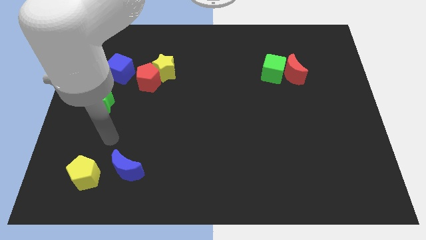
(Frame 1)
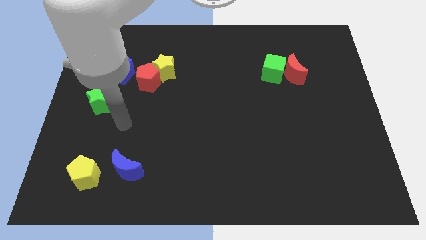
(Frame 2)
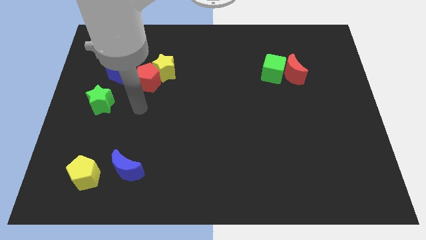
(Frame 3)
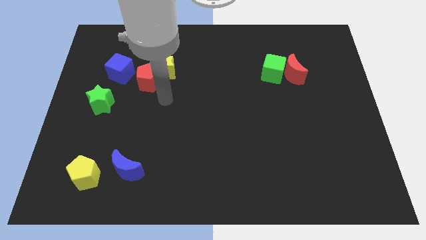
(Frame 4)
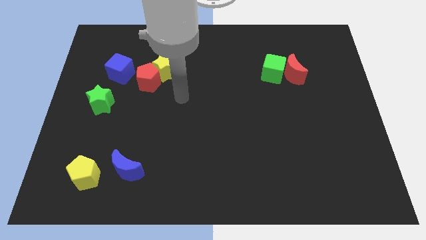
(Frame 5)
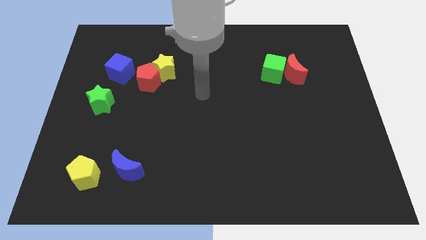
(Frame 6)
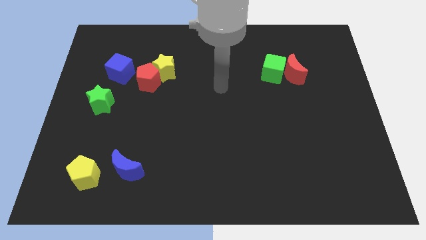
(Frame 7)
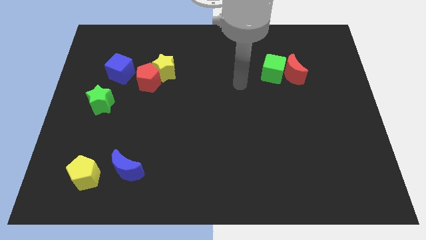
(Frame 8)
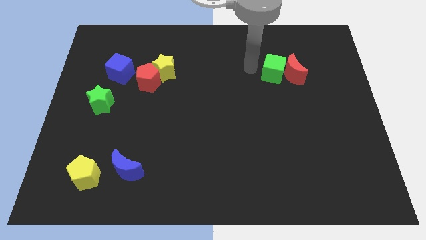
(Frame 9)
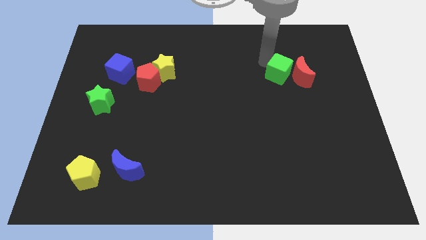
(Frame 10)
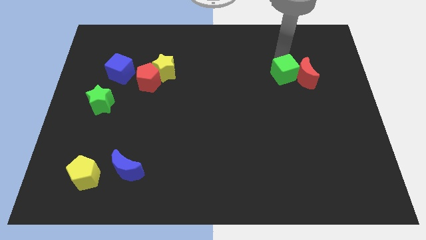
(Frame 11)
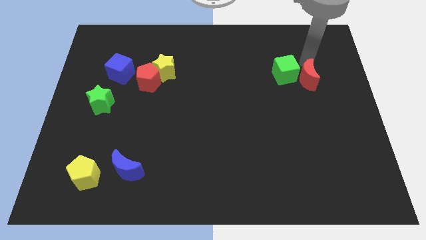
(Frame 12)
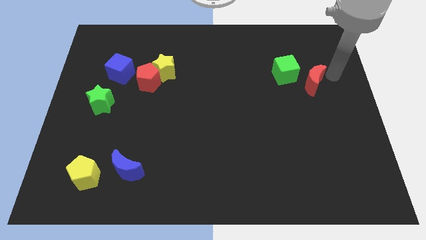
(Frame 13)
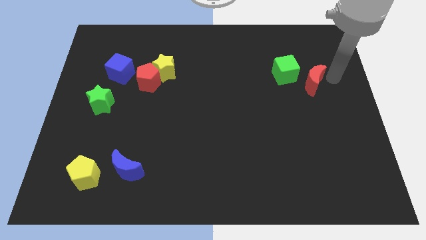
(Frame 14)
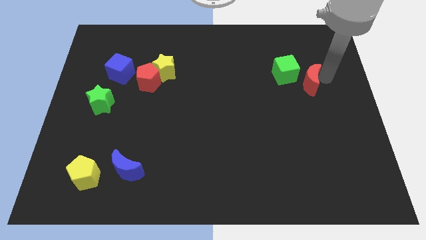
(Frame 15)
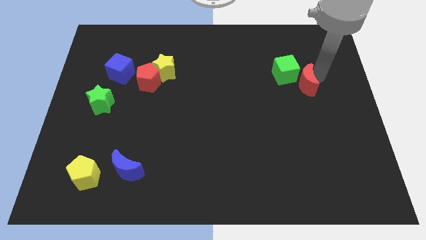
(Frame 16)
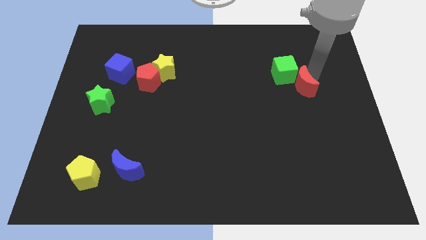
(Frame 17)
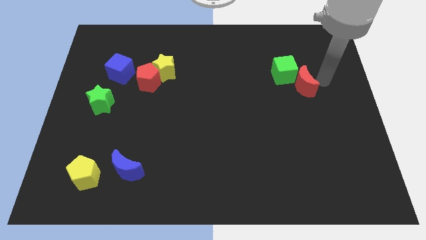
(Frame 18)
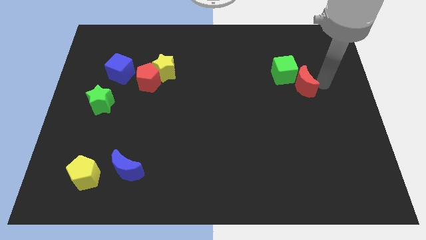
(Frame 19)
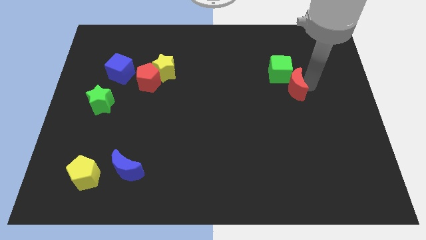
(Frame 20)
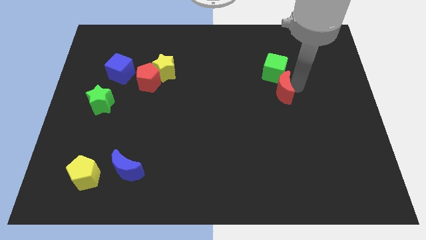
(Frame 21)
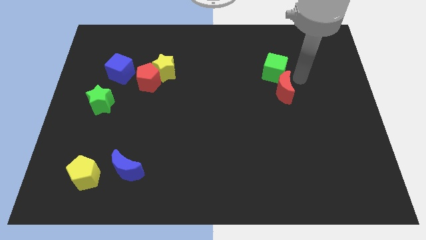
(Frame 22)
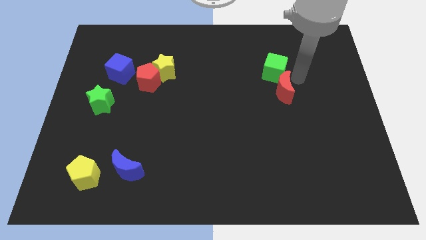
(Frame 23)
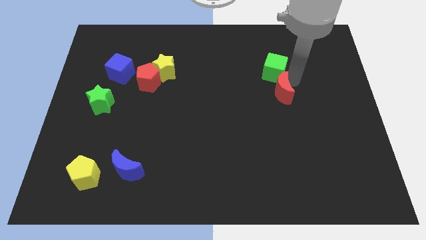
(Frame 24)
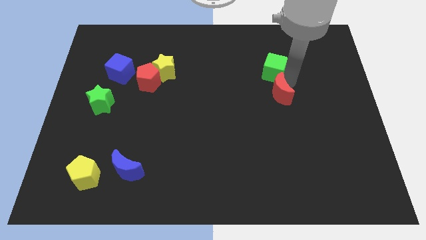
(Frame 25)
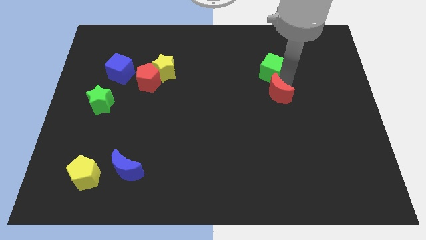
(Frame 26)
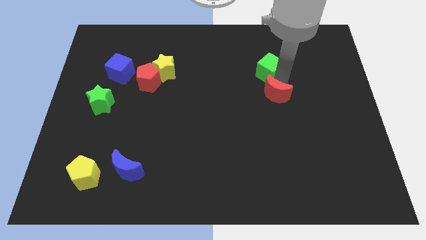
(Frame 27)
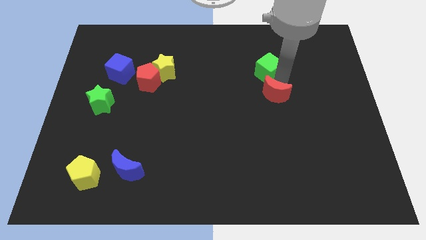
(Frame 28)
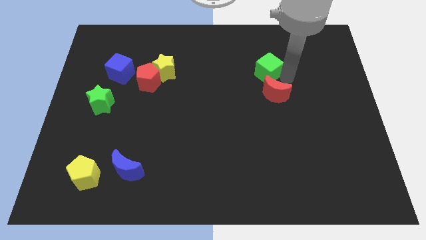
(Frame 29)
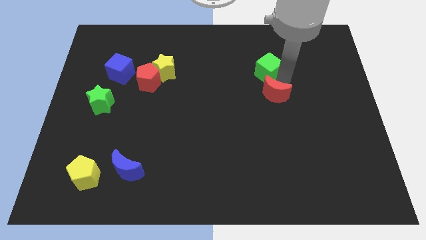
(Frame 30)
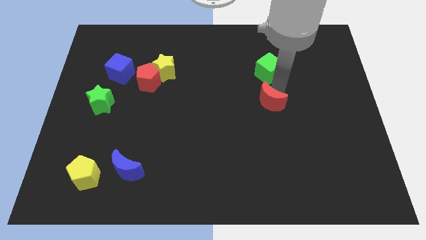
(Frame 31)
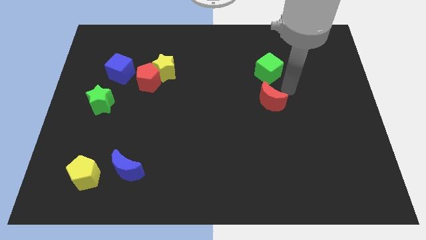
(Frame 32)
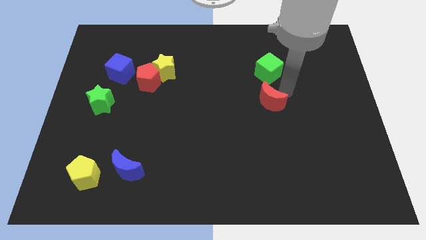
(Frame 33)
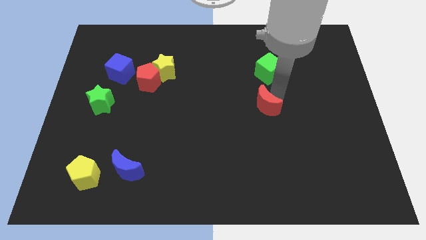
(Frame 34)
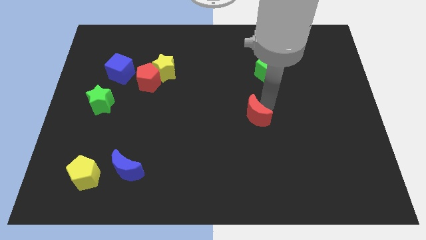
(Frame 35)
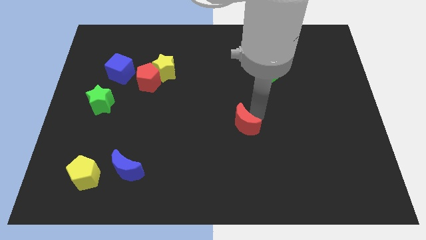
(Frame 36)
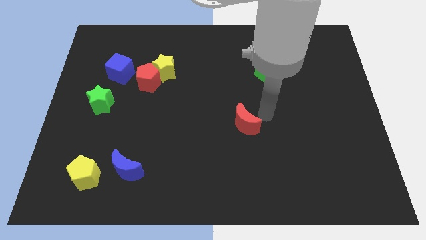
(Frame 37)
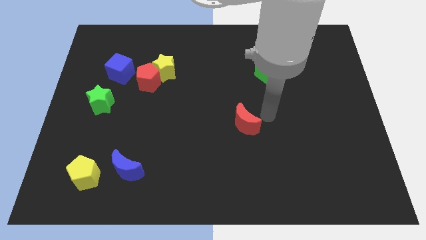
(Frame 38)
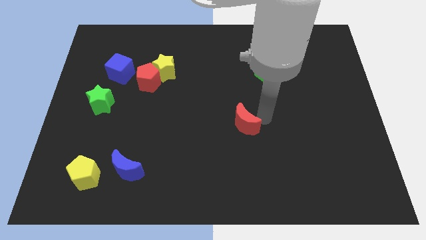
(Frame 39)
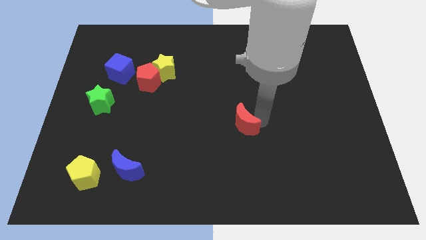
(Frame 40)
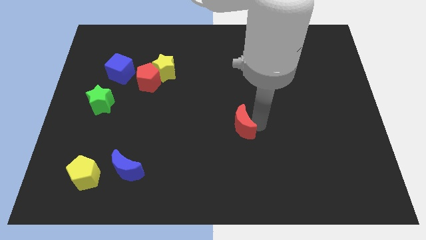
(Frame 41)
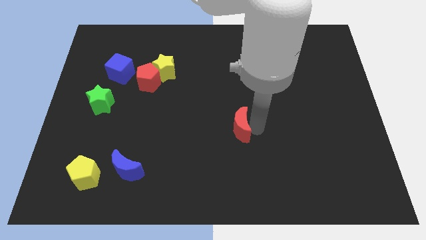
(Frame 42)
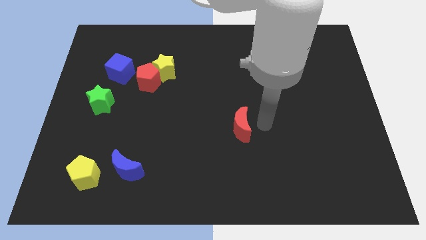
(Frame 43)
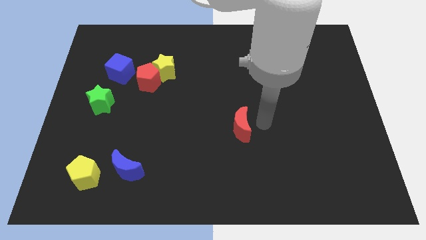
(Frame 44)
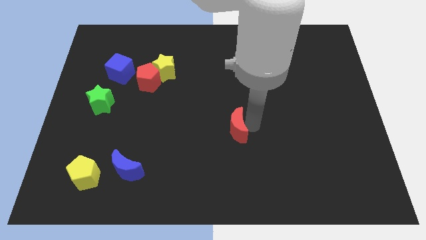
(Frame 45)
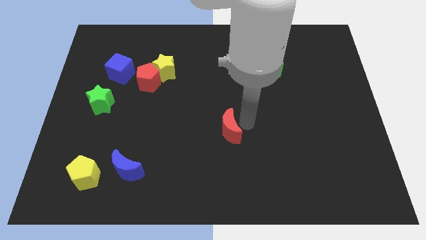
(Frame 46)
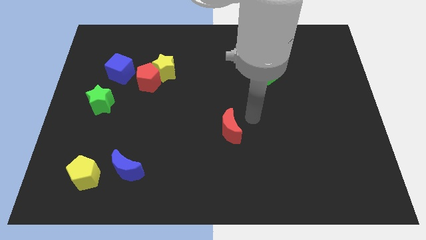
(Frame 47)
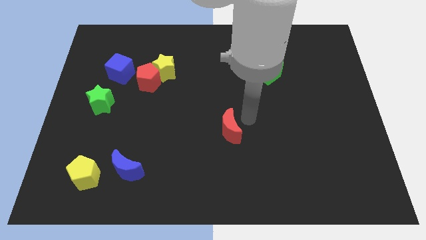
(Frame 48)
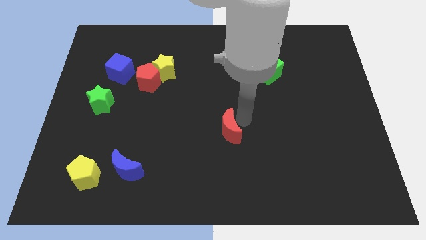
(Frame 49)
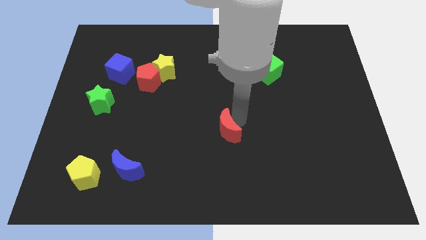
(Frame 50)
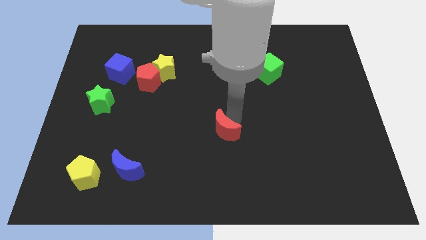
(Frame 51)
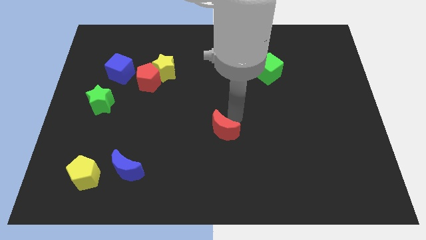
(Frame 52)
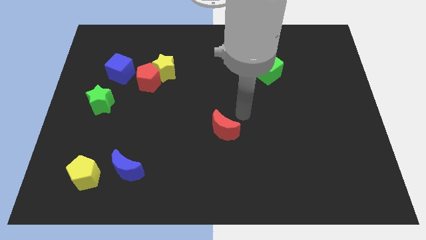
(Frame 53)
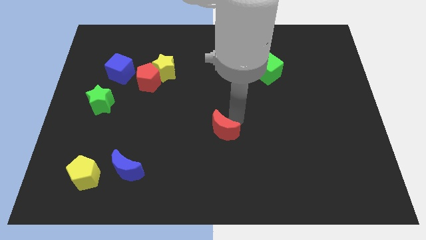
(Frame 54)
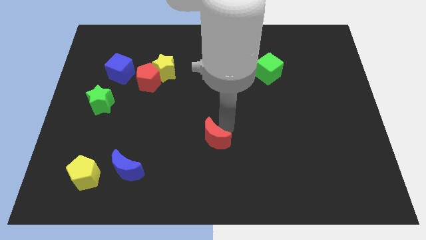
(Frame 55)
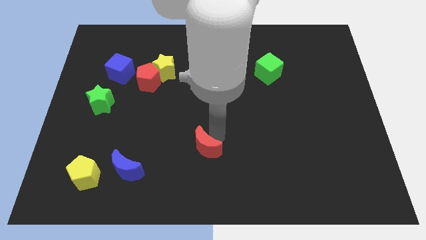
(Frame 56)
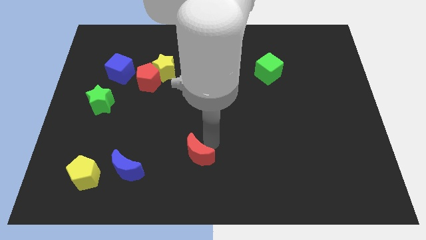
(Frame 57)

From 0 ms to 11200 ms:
push the red moon right of the blue moon

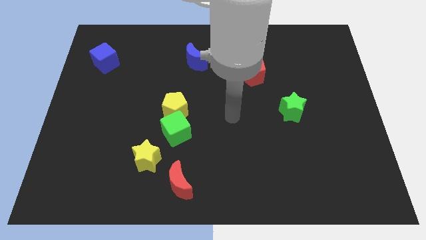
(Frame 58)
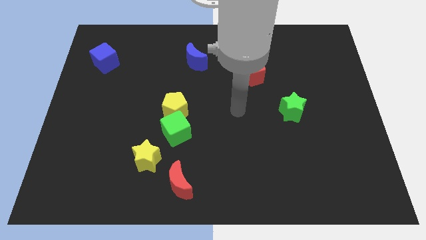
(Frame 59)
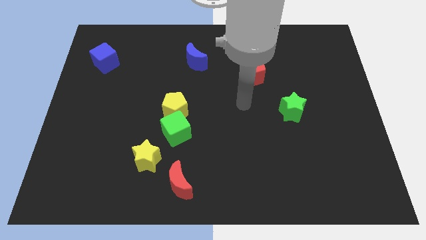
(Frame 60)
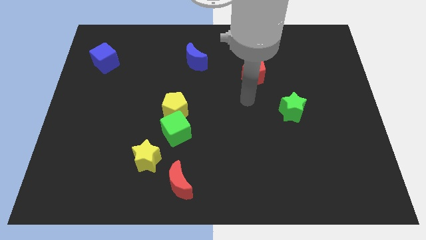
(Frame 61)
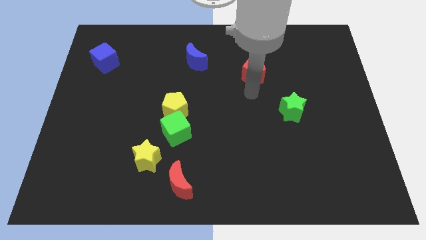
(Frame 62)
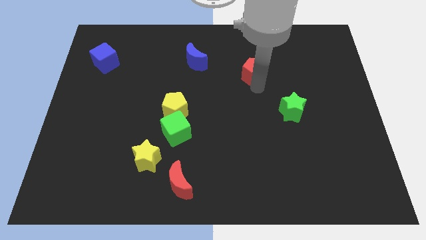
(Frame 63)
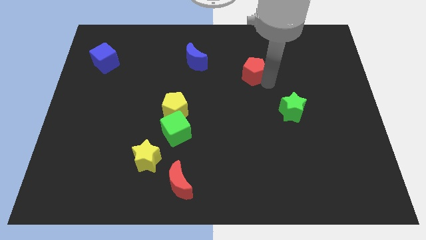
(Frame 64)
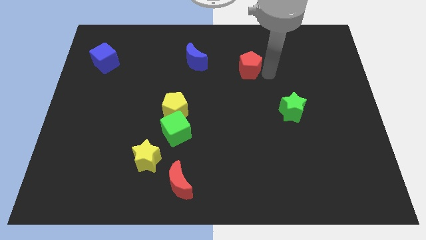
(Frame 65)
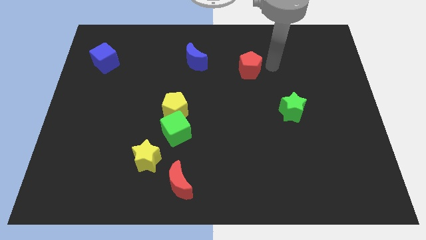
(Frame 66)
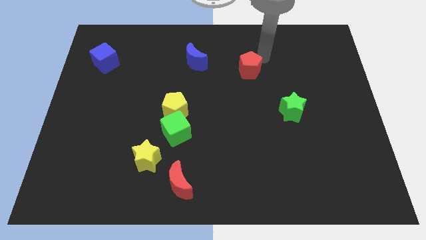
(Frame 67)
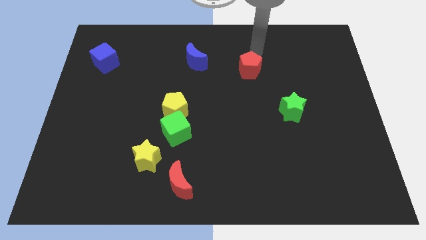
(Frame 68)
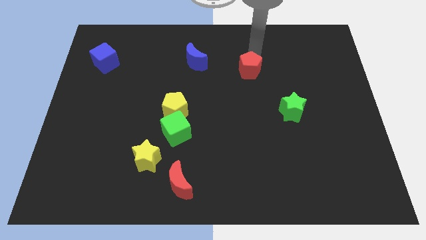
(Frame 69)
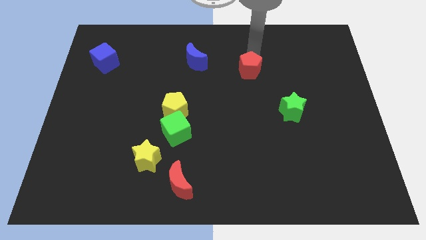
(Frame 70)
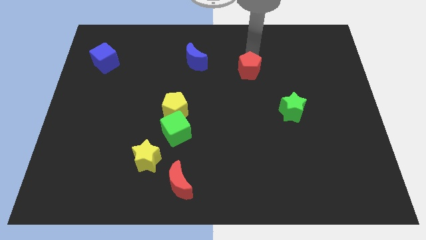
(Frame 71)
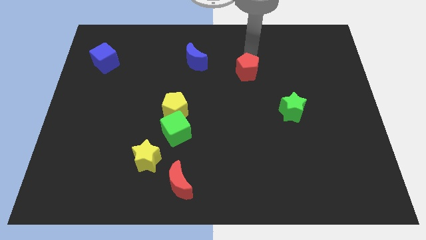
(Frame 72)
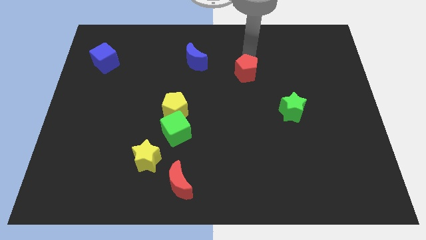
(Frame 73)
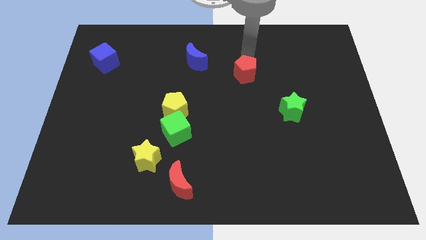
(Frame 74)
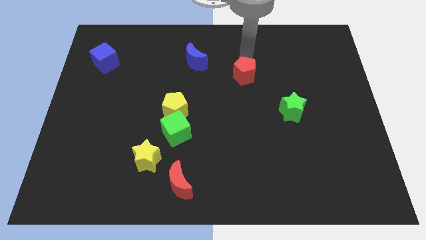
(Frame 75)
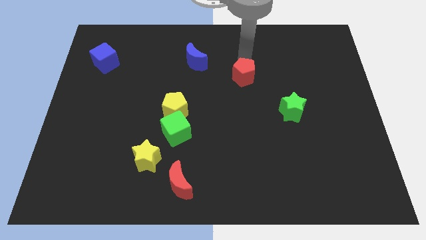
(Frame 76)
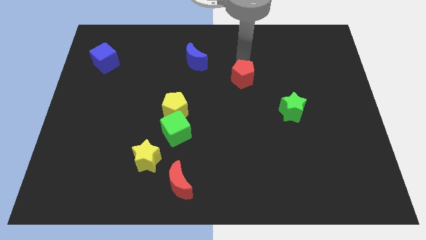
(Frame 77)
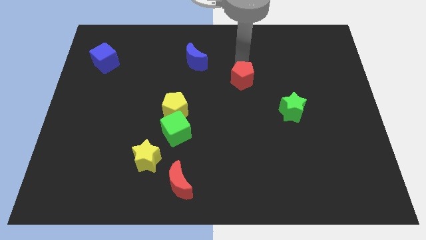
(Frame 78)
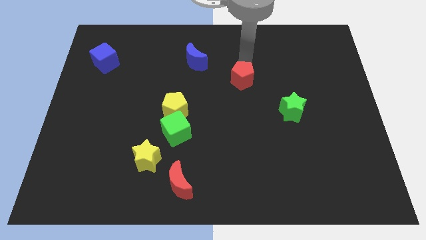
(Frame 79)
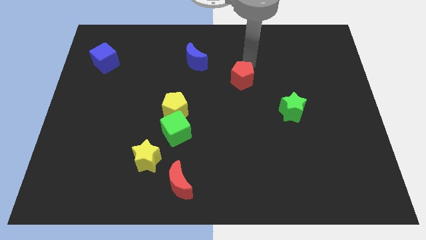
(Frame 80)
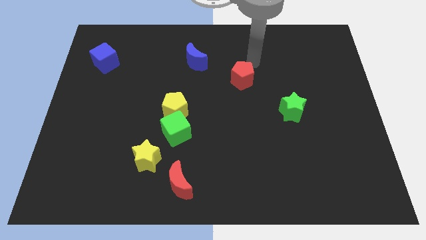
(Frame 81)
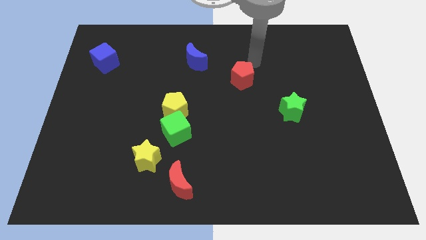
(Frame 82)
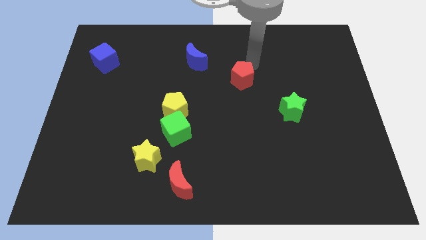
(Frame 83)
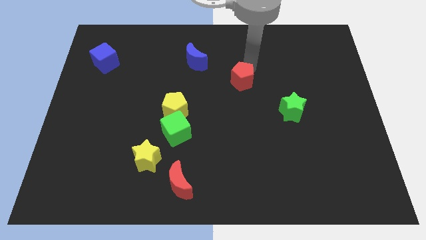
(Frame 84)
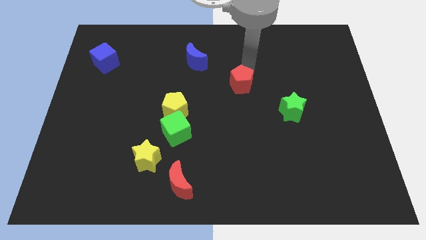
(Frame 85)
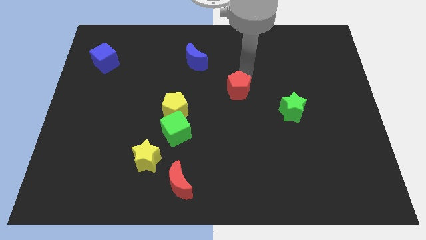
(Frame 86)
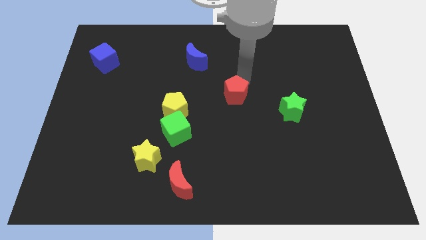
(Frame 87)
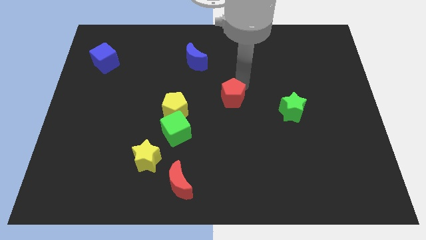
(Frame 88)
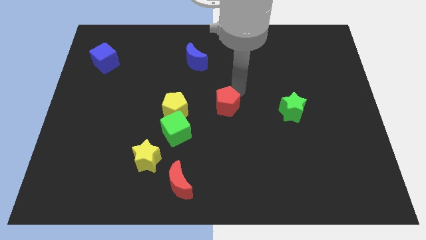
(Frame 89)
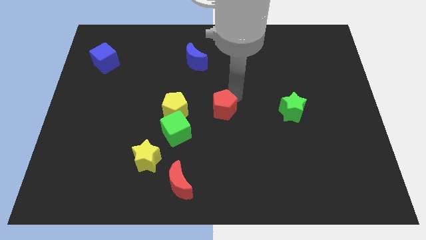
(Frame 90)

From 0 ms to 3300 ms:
move the red pentagon to the top right side of the green cube
